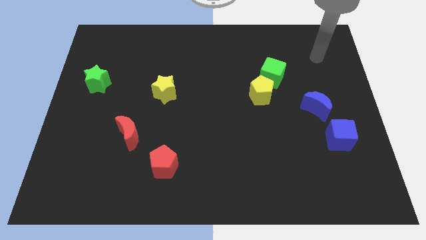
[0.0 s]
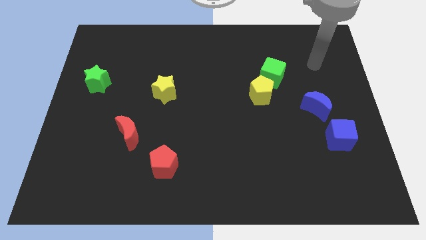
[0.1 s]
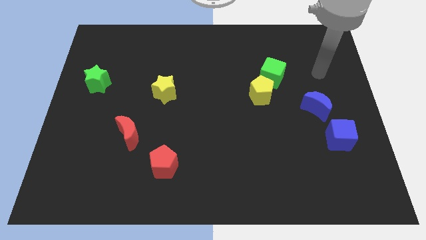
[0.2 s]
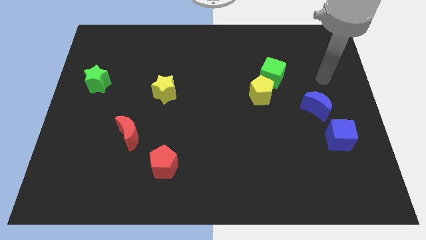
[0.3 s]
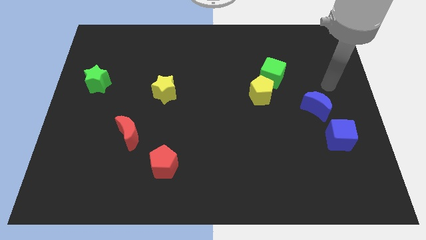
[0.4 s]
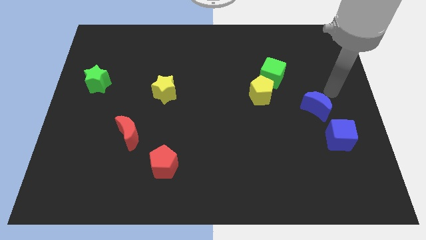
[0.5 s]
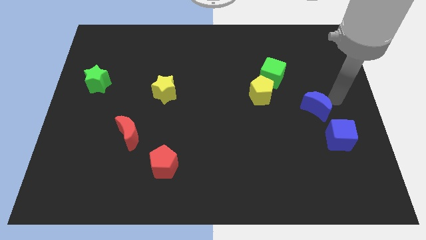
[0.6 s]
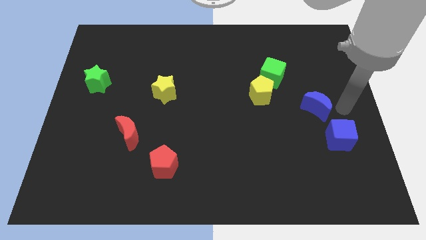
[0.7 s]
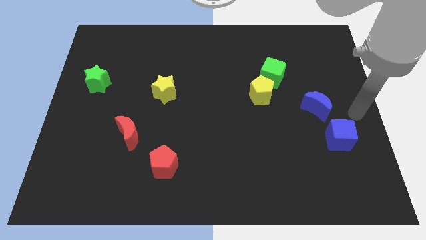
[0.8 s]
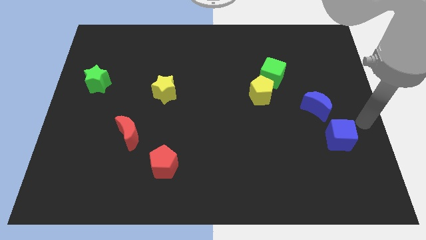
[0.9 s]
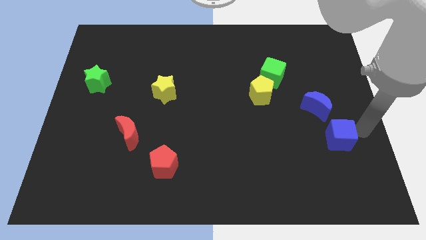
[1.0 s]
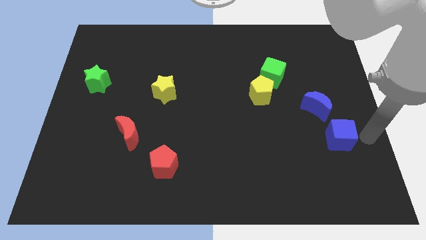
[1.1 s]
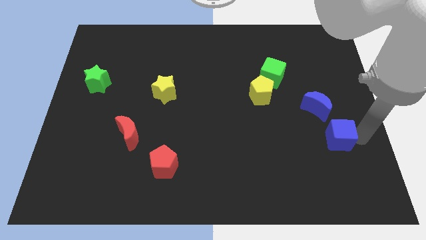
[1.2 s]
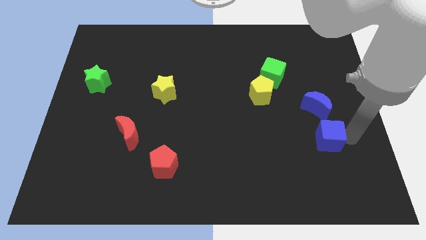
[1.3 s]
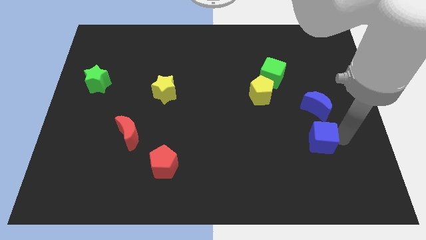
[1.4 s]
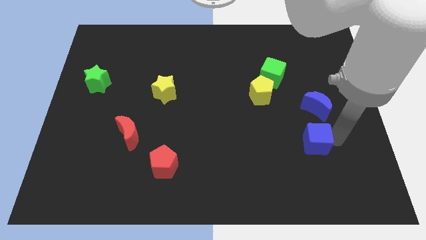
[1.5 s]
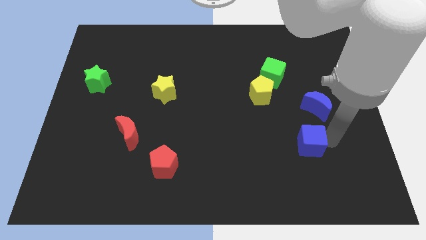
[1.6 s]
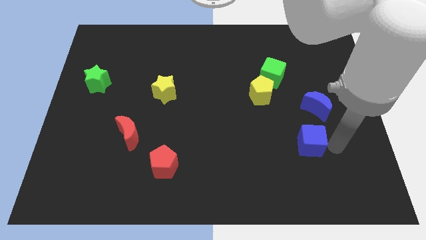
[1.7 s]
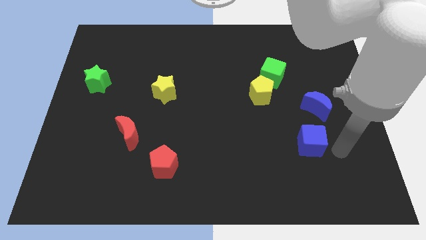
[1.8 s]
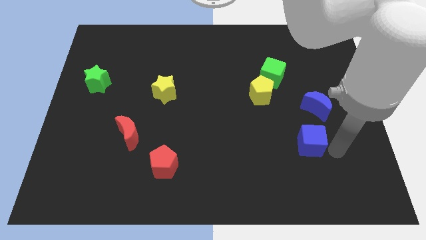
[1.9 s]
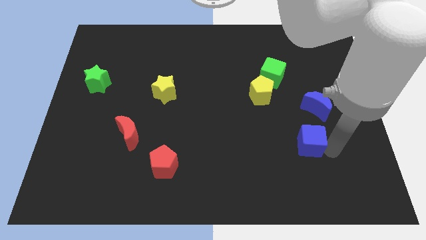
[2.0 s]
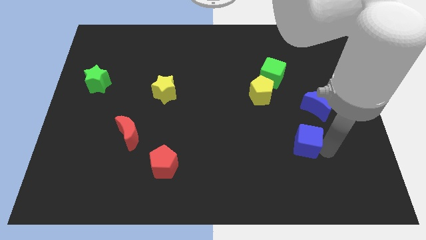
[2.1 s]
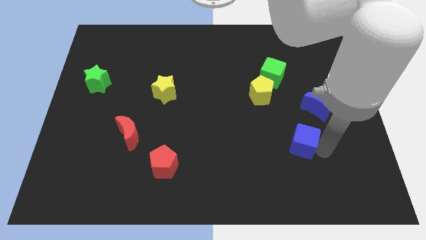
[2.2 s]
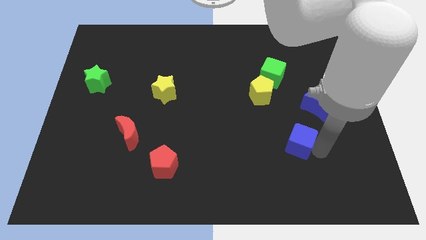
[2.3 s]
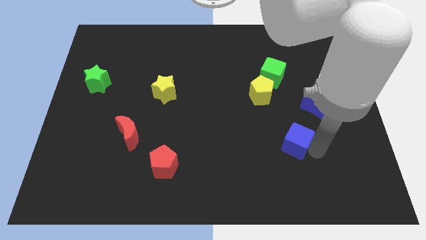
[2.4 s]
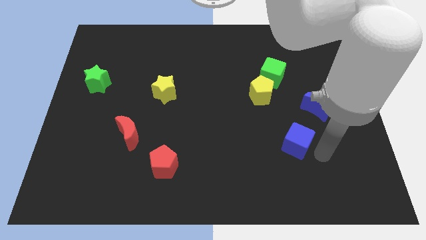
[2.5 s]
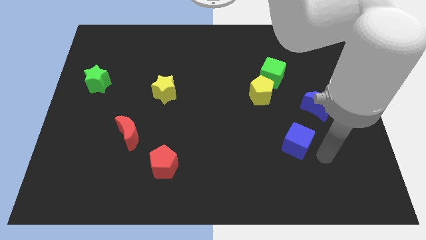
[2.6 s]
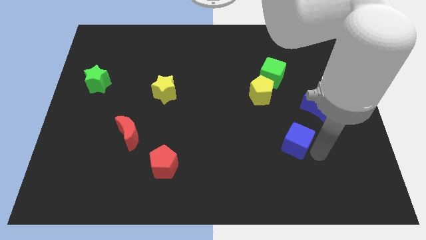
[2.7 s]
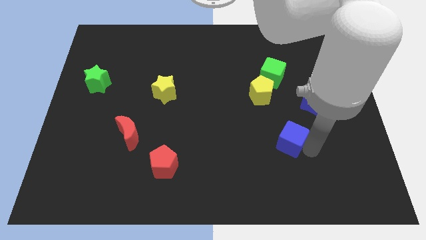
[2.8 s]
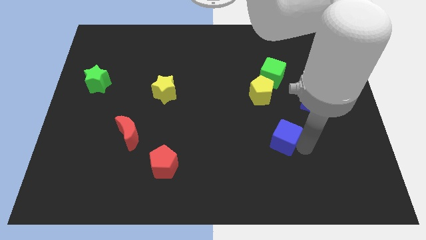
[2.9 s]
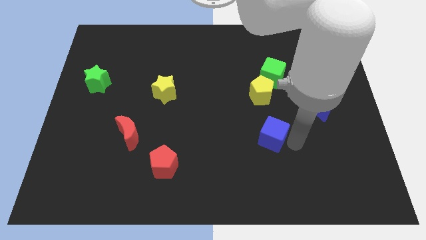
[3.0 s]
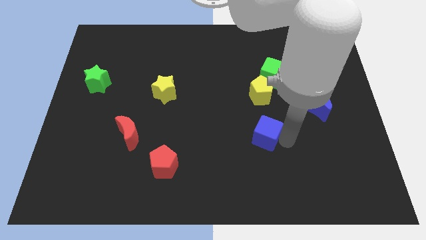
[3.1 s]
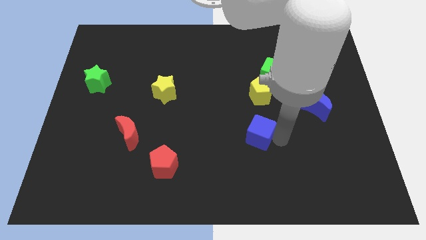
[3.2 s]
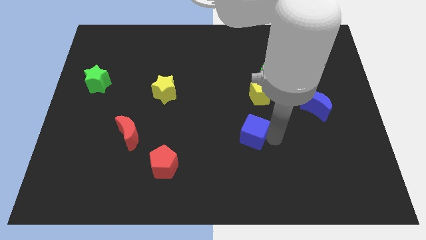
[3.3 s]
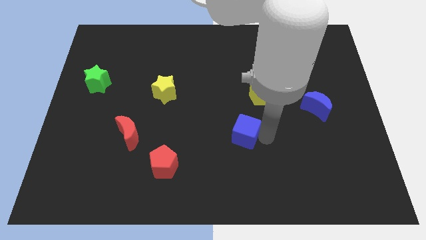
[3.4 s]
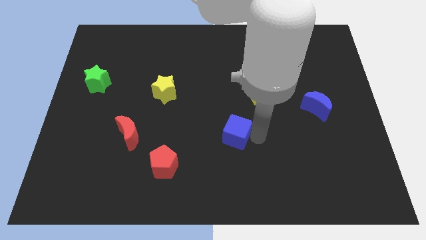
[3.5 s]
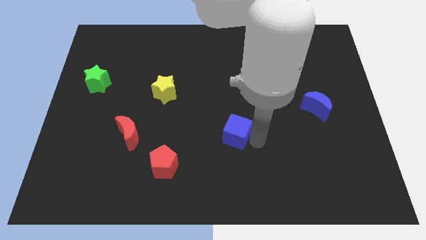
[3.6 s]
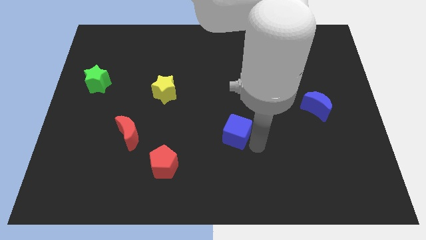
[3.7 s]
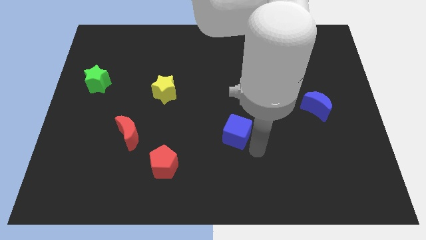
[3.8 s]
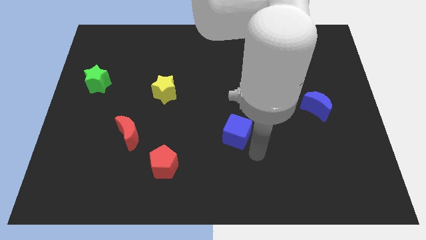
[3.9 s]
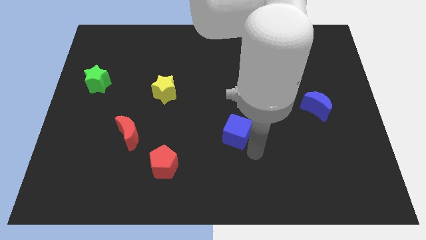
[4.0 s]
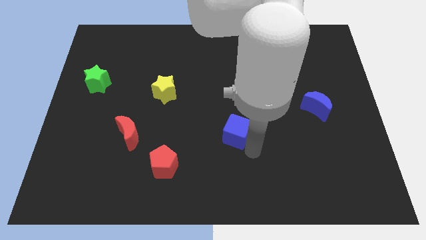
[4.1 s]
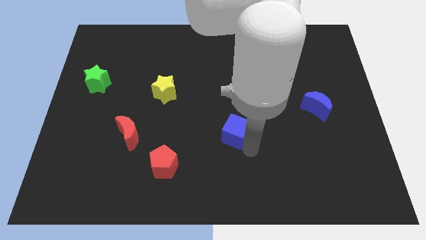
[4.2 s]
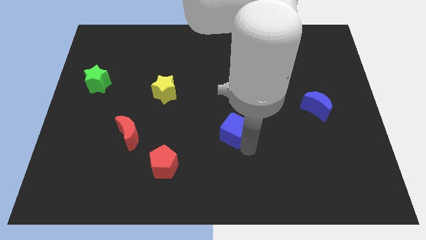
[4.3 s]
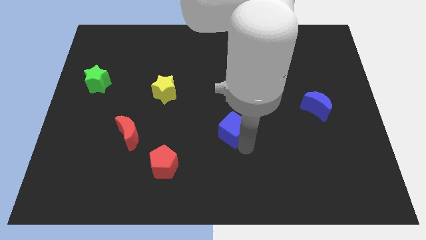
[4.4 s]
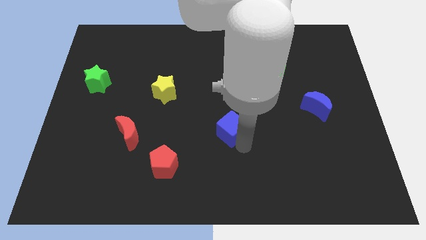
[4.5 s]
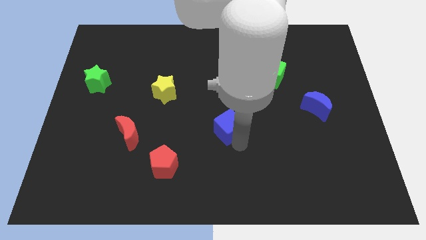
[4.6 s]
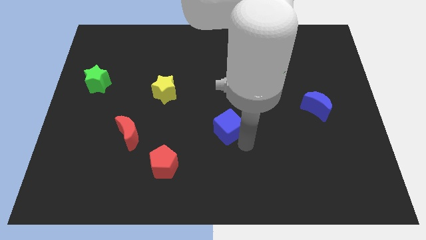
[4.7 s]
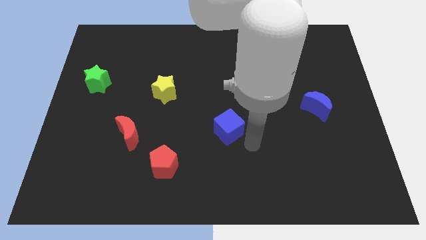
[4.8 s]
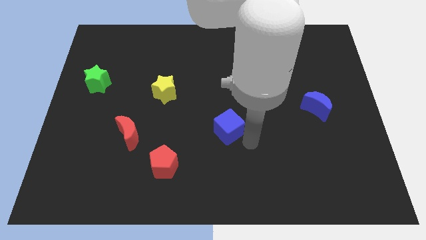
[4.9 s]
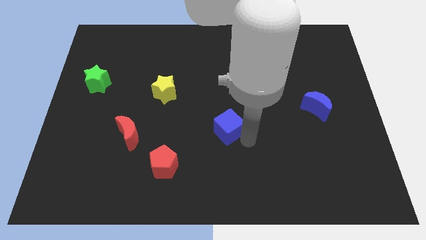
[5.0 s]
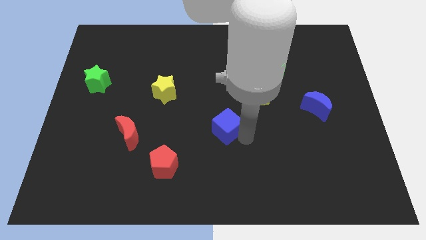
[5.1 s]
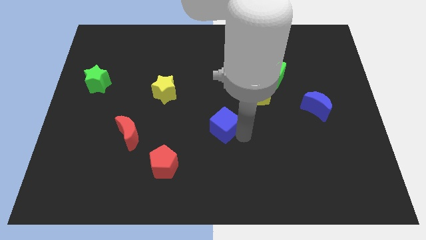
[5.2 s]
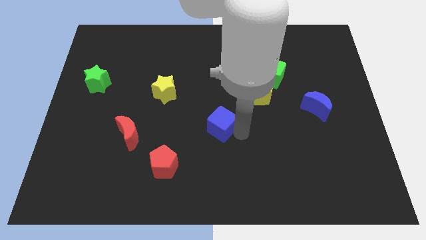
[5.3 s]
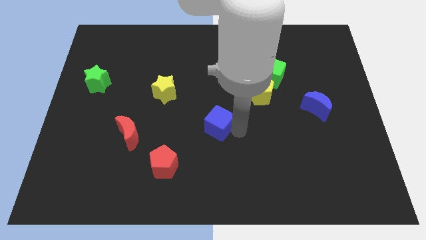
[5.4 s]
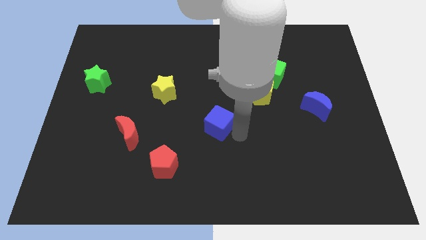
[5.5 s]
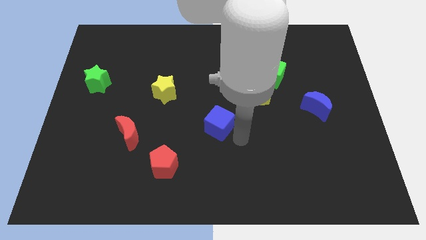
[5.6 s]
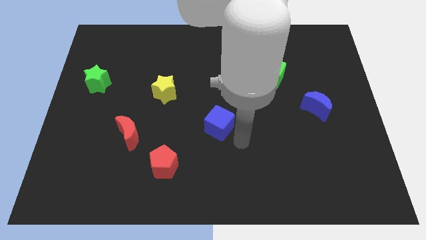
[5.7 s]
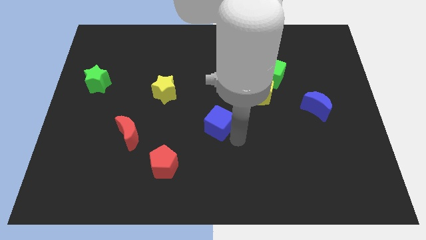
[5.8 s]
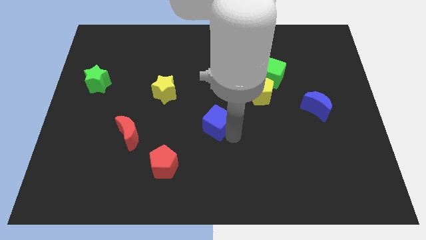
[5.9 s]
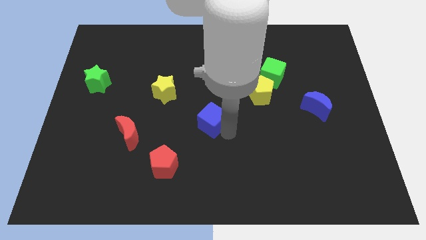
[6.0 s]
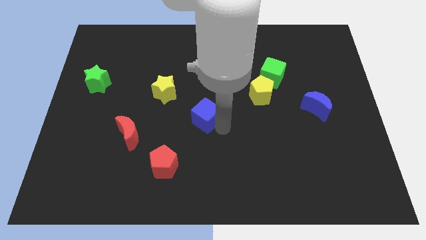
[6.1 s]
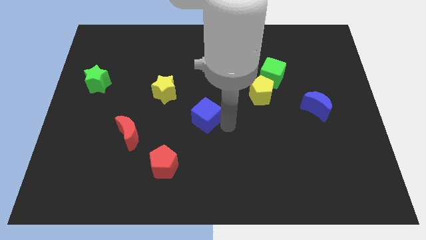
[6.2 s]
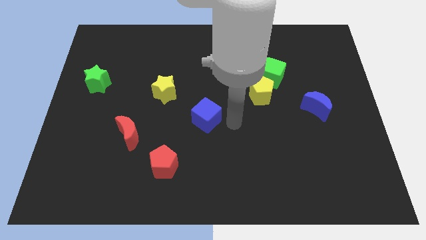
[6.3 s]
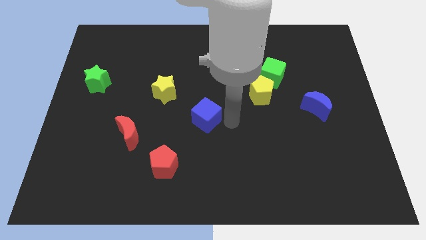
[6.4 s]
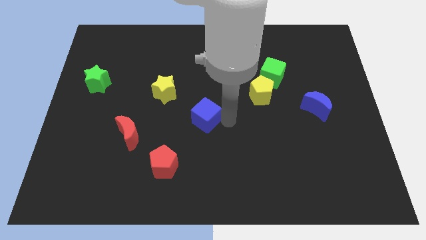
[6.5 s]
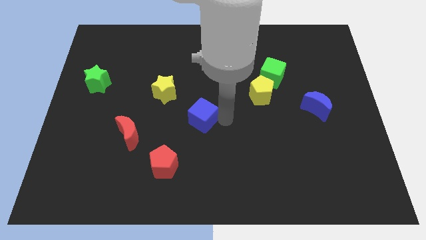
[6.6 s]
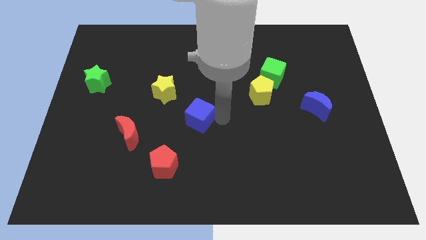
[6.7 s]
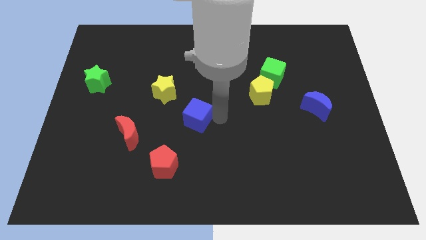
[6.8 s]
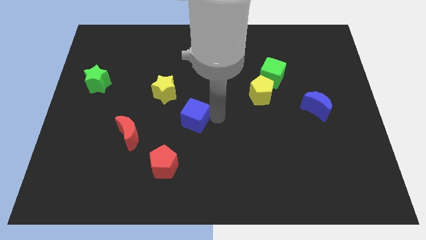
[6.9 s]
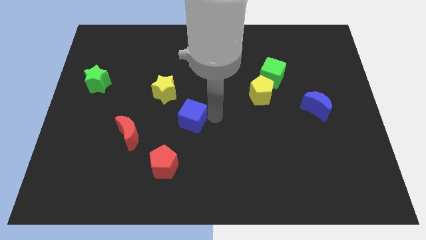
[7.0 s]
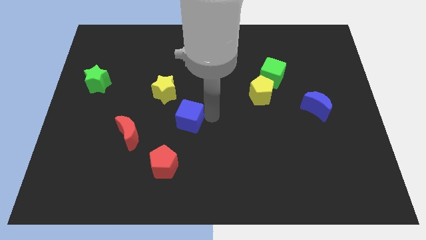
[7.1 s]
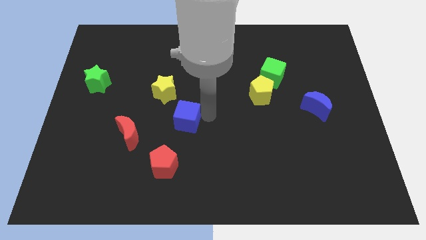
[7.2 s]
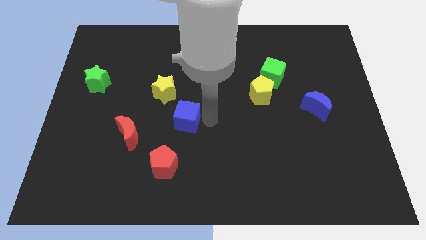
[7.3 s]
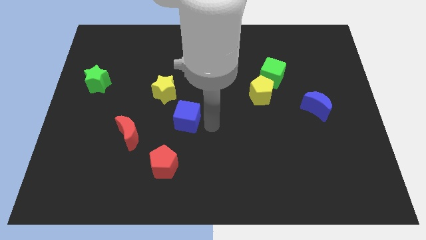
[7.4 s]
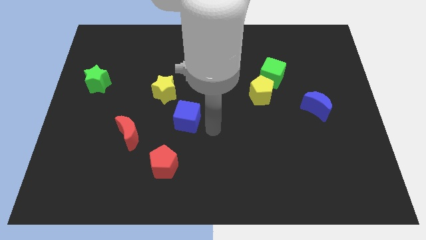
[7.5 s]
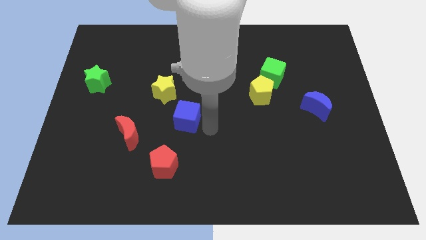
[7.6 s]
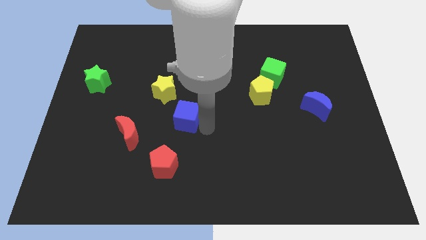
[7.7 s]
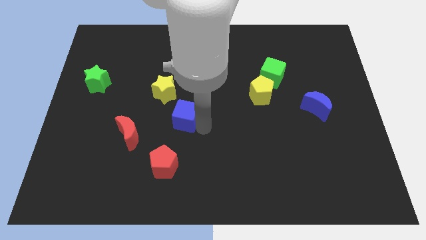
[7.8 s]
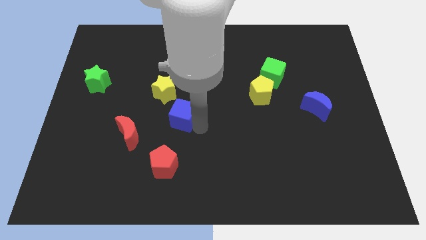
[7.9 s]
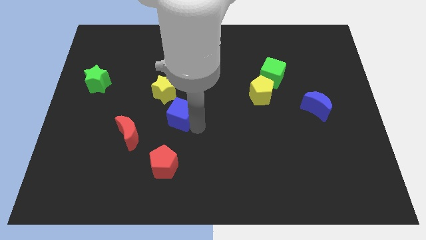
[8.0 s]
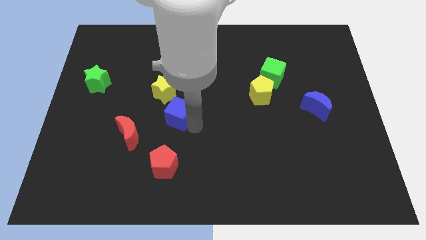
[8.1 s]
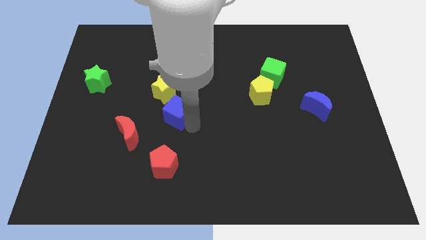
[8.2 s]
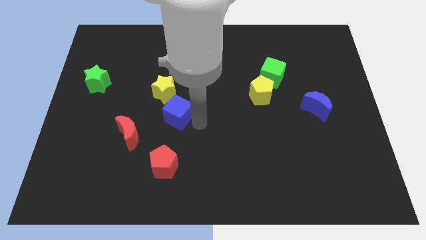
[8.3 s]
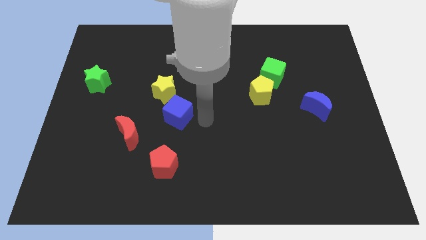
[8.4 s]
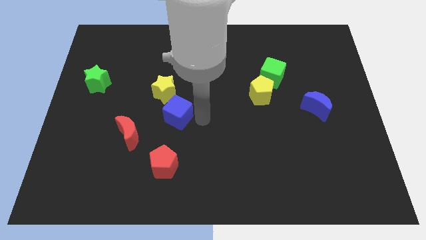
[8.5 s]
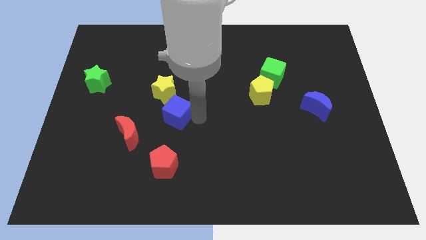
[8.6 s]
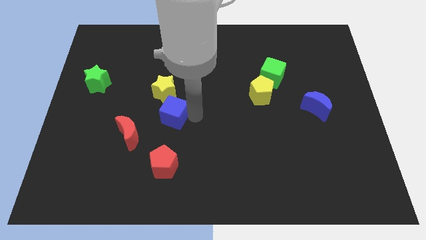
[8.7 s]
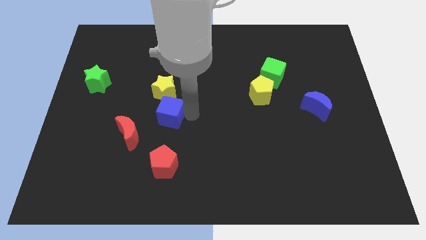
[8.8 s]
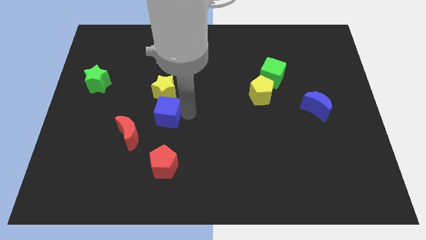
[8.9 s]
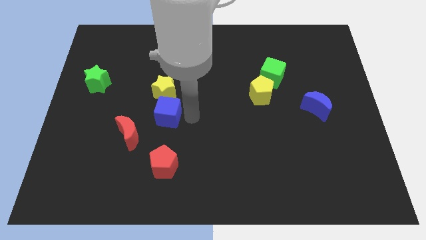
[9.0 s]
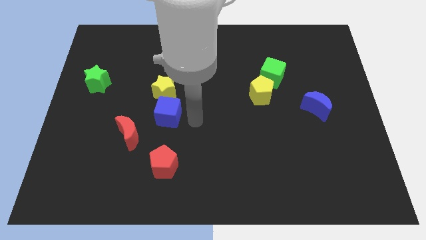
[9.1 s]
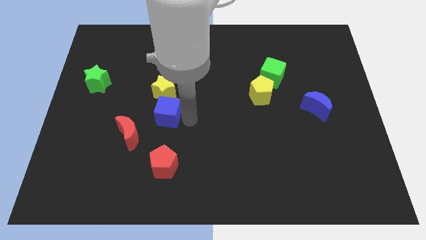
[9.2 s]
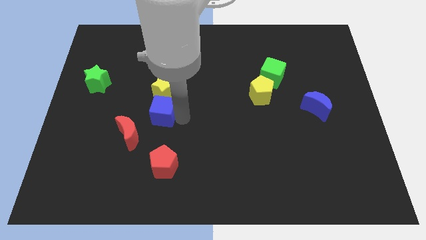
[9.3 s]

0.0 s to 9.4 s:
push the blue cube to the bottom left of the yellow star
